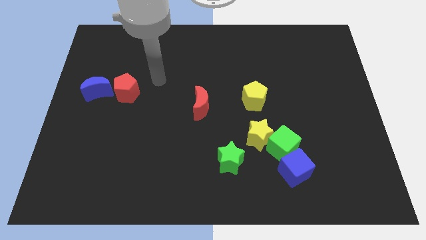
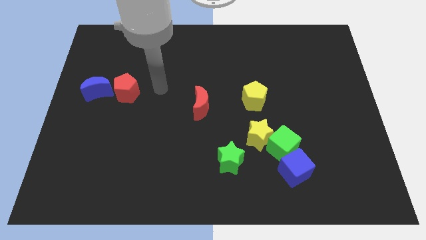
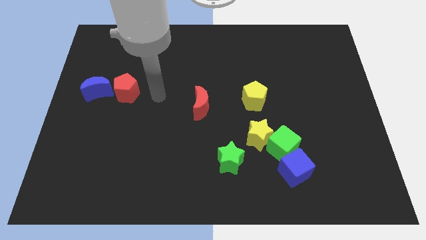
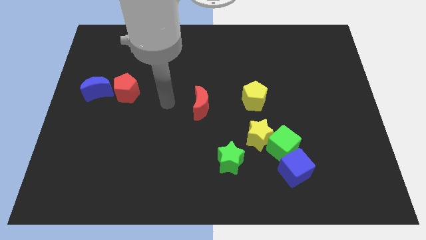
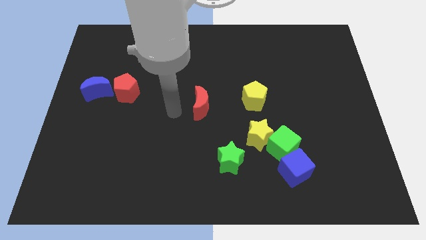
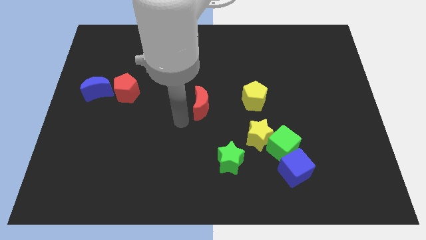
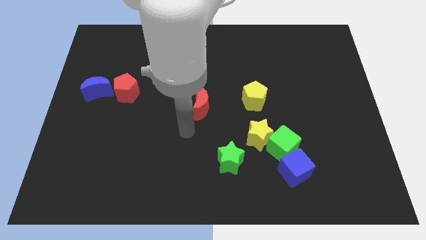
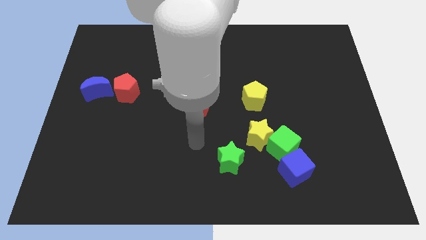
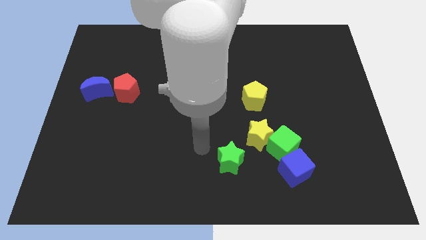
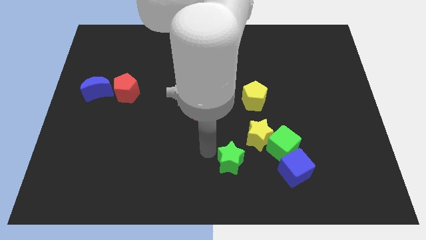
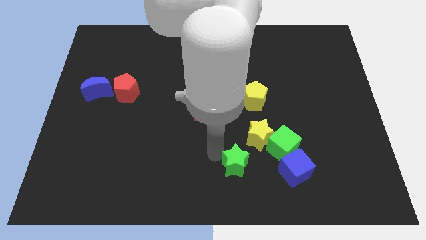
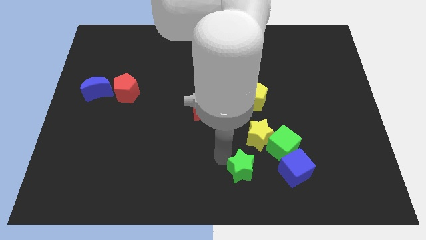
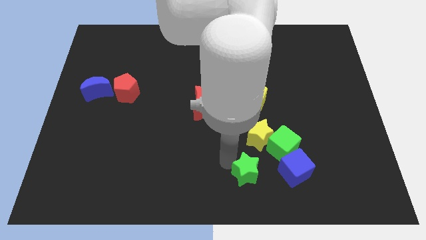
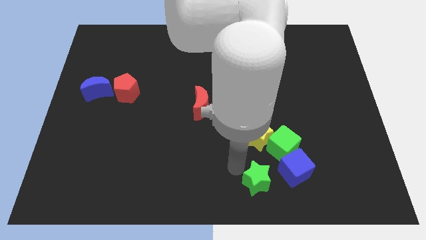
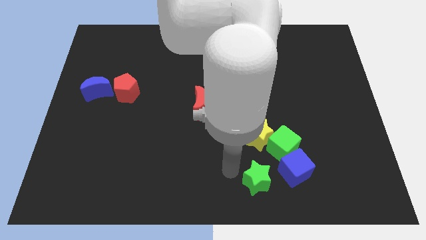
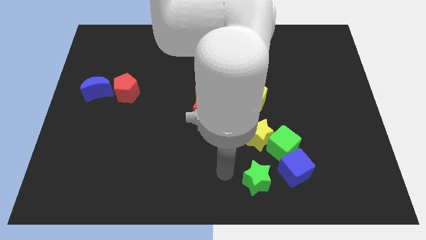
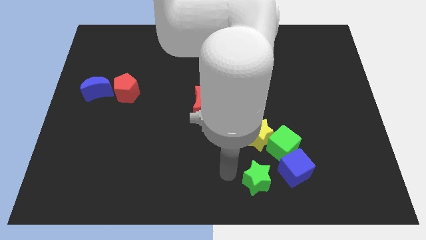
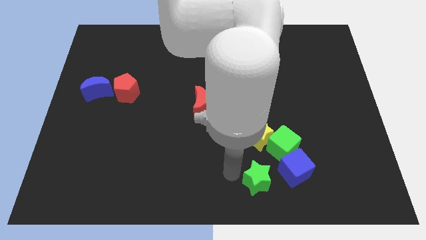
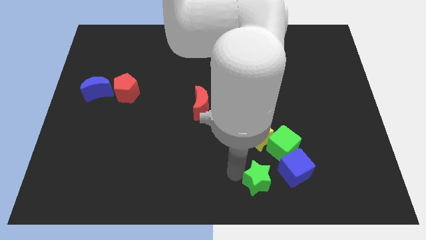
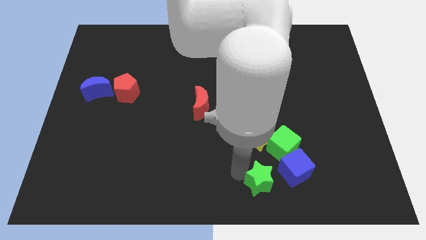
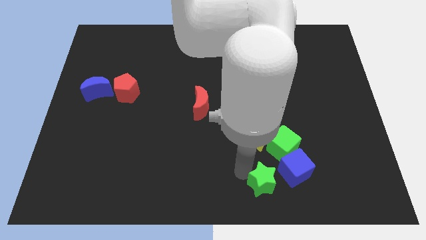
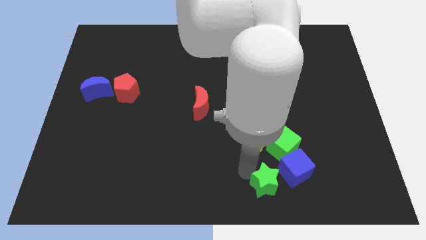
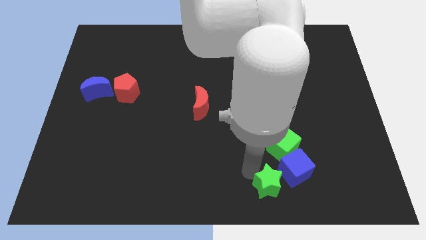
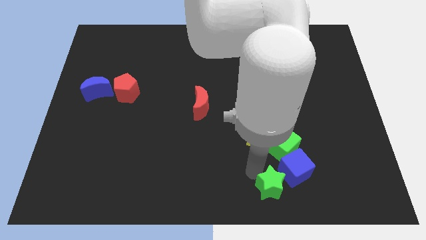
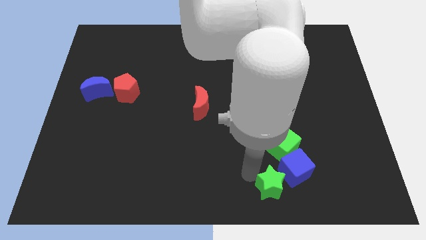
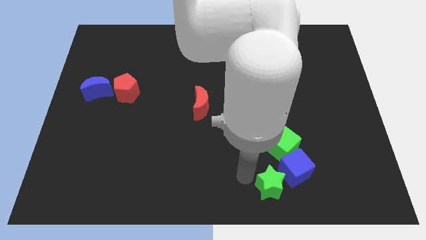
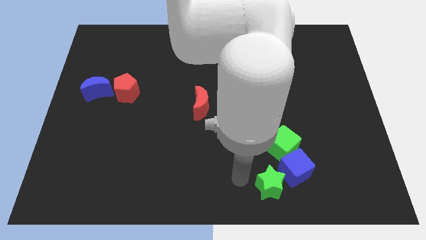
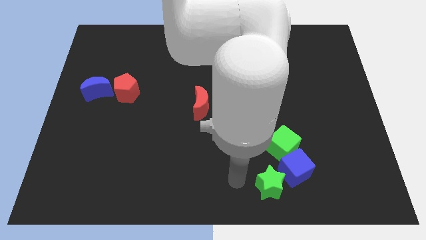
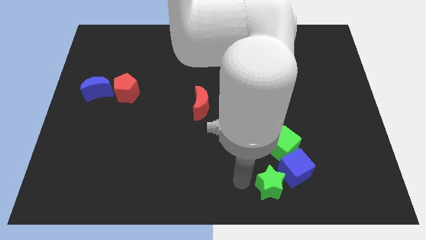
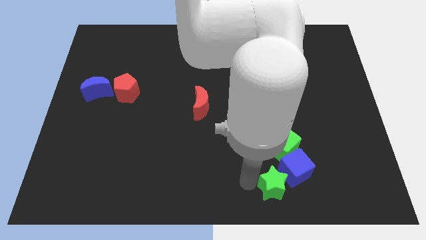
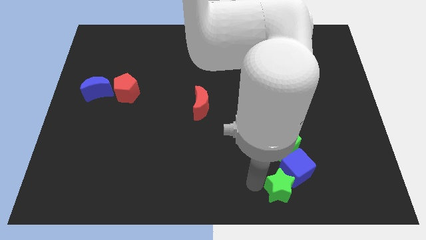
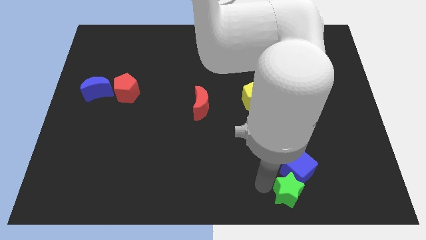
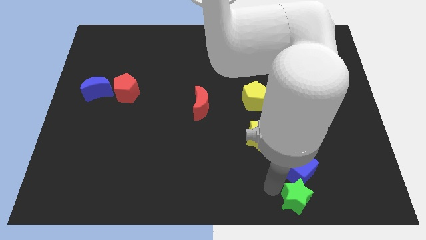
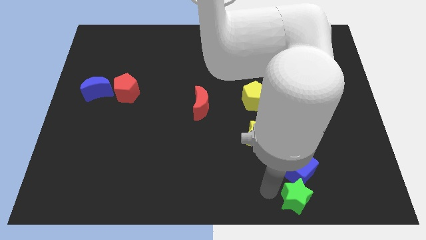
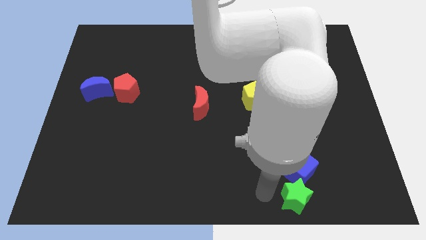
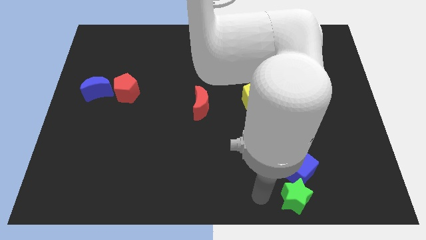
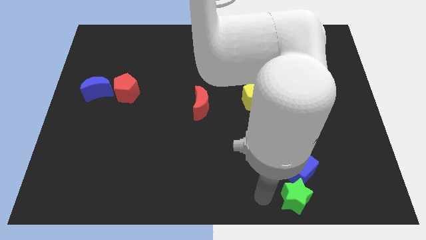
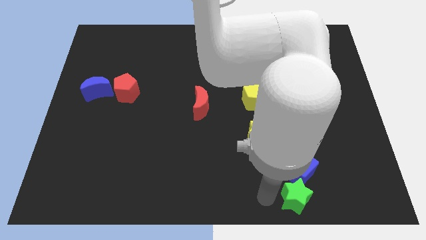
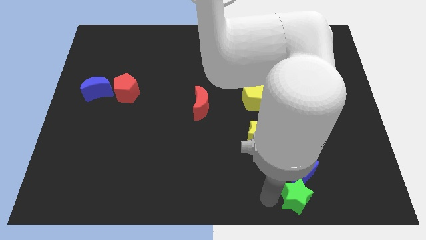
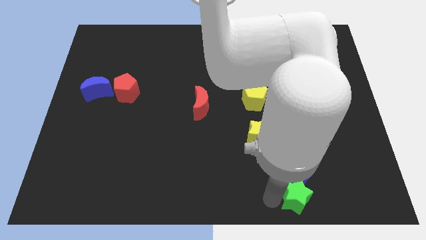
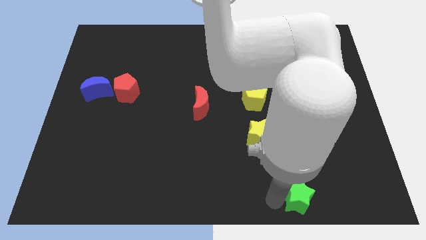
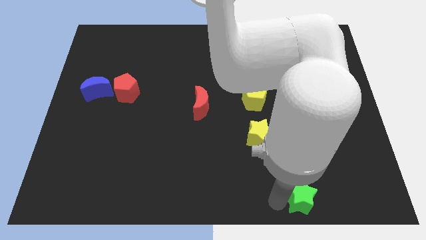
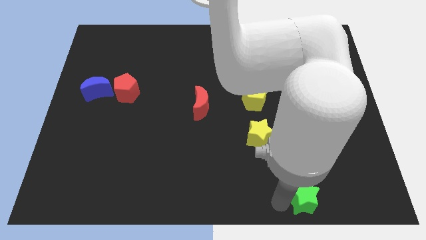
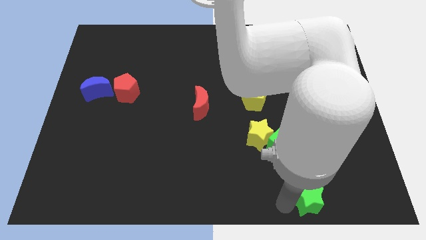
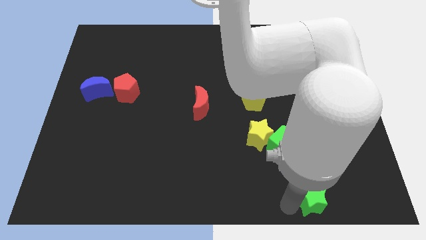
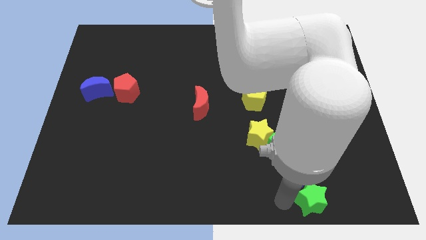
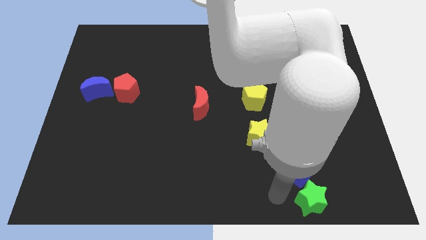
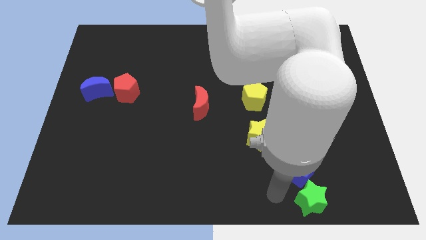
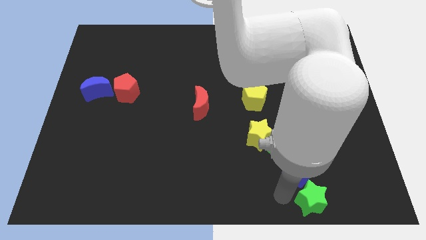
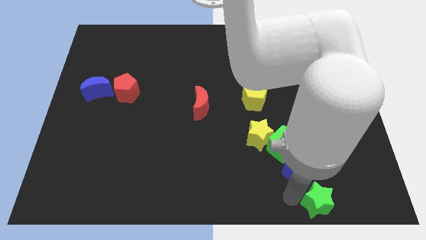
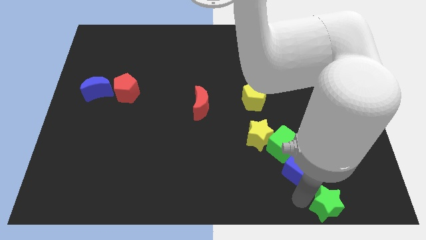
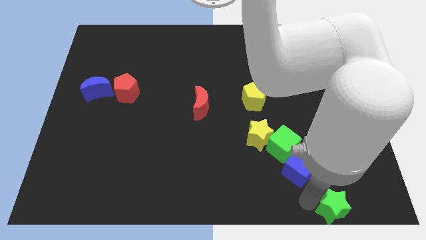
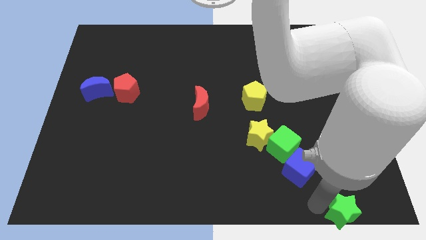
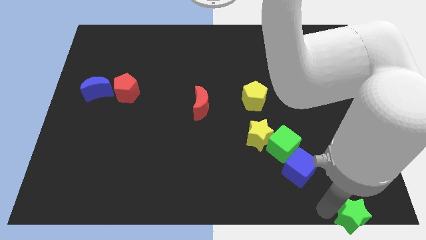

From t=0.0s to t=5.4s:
move the green star to the bottom right of the board

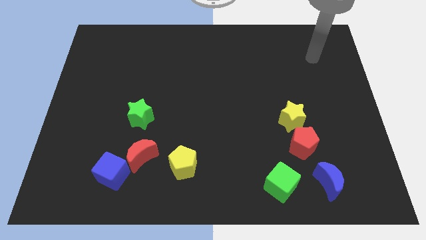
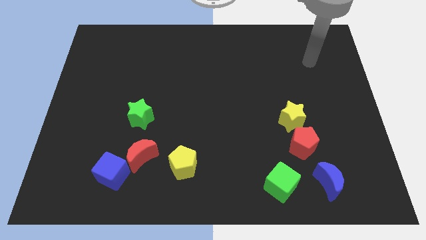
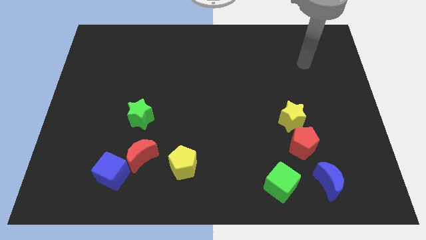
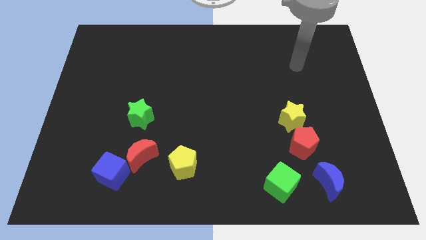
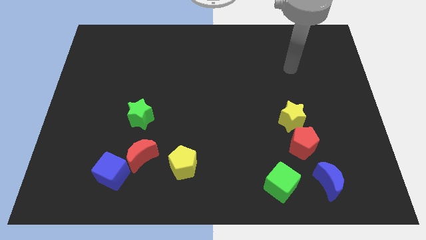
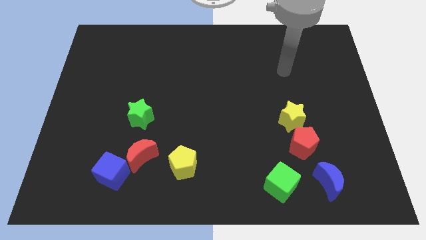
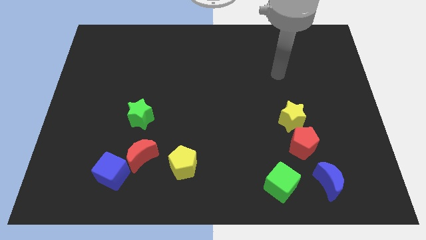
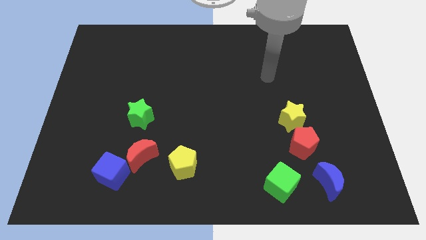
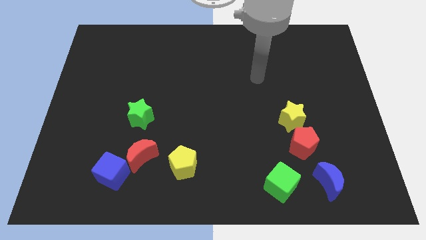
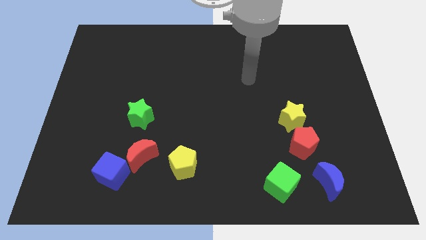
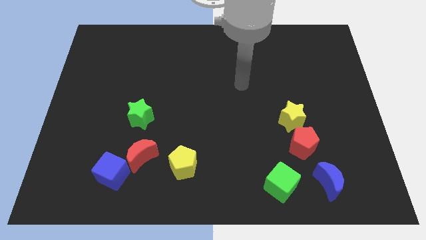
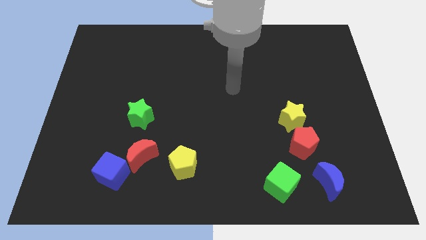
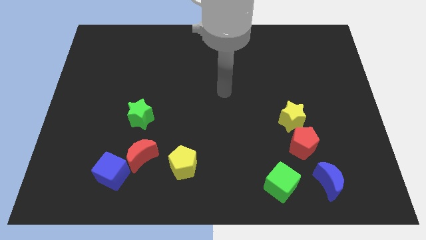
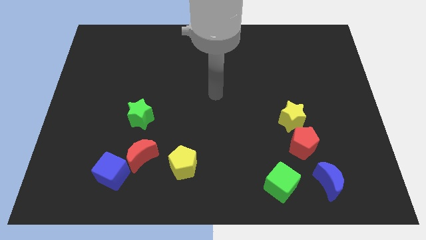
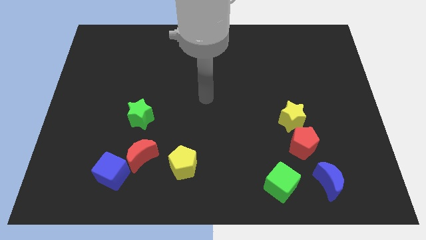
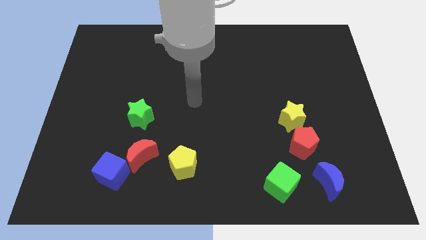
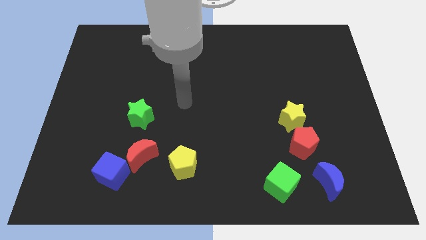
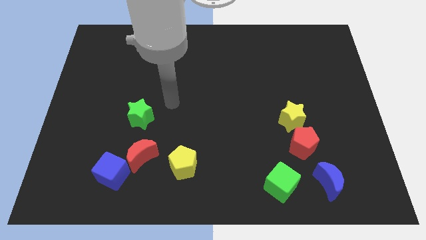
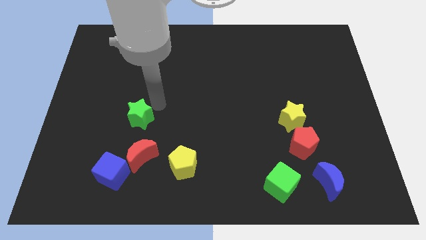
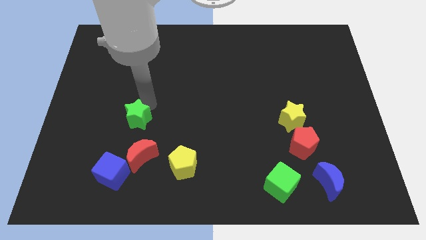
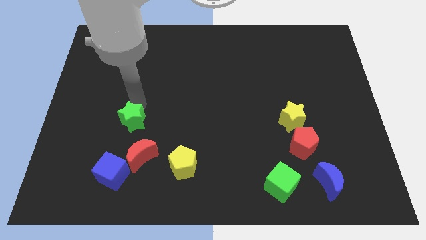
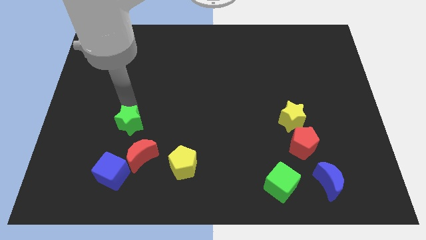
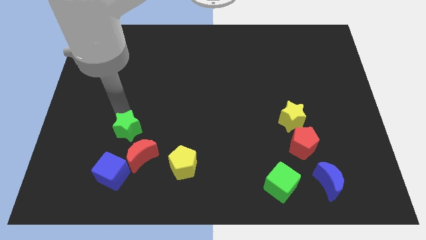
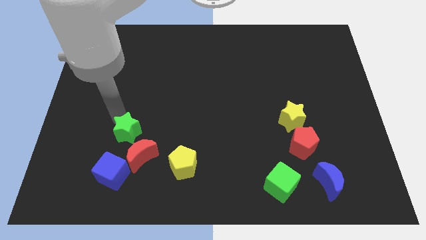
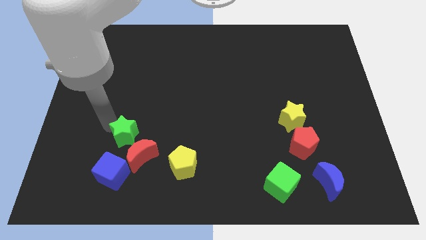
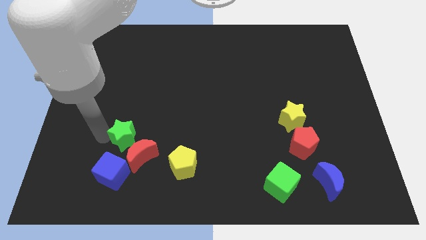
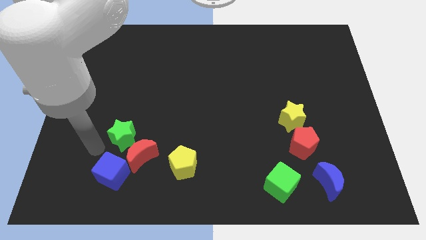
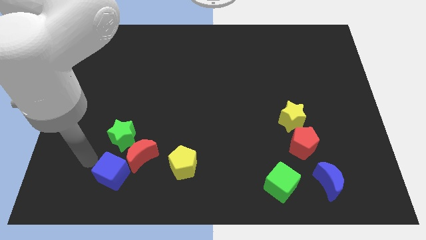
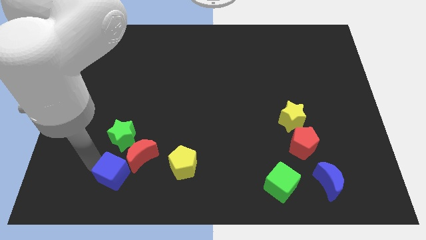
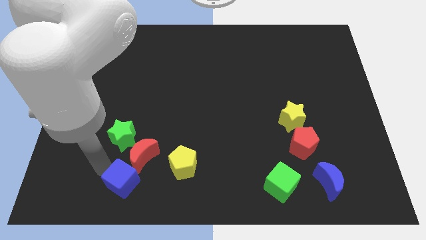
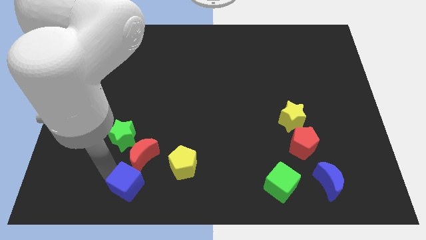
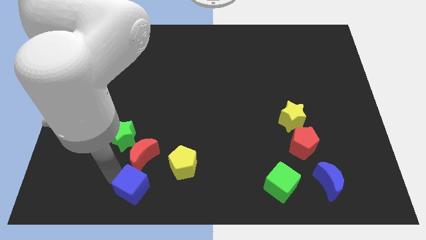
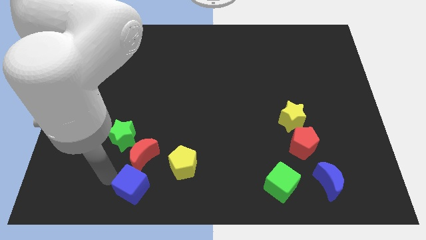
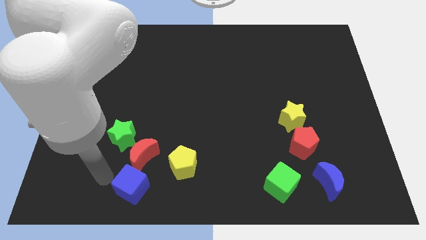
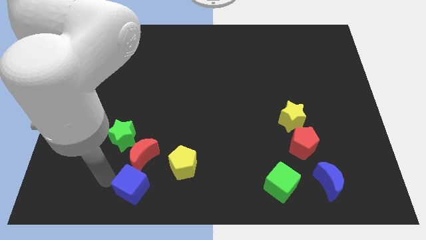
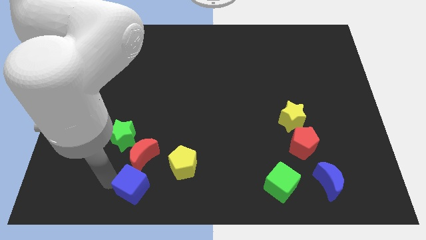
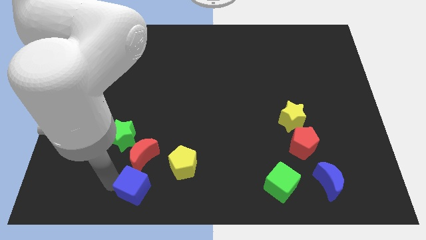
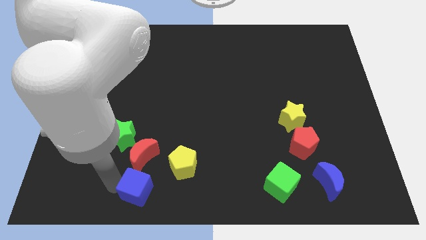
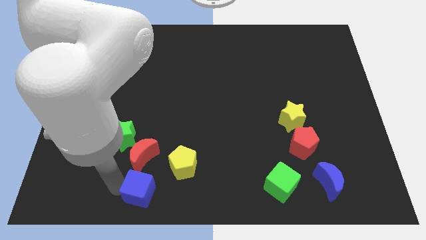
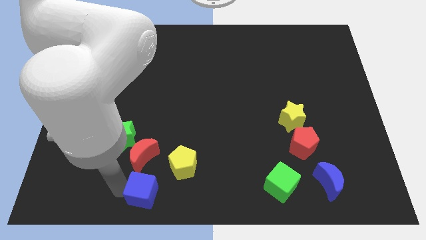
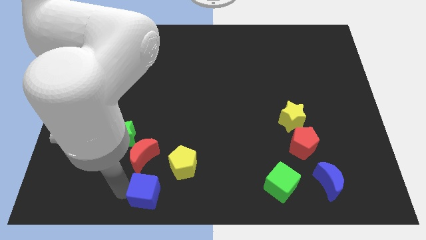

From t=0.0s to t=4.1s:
slide the blue cube to the bottom side
